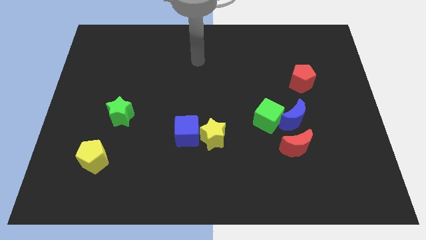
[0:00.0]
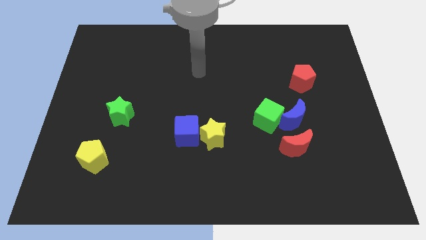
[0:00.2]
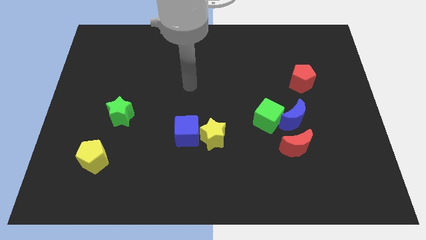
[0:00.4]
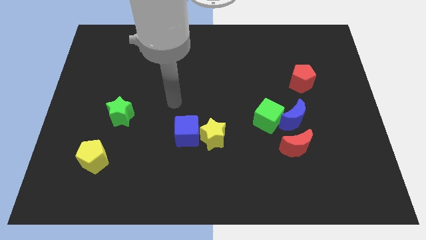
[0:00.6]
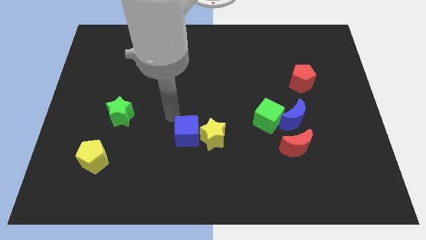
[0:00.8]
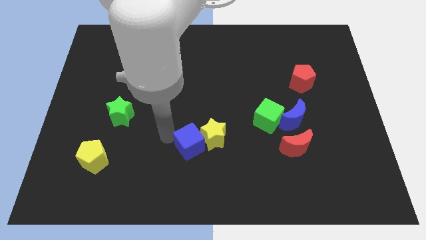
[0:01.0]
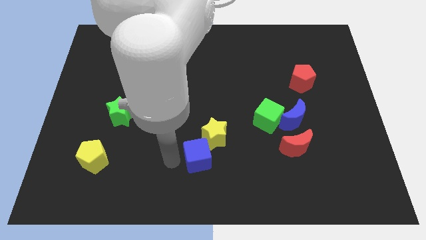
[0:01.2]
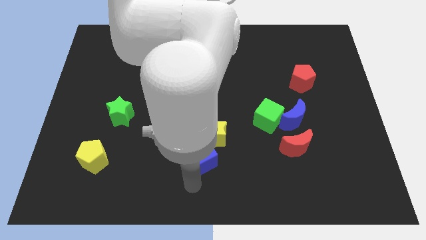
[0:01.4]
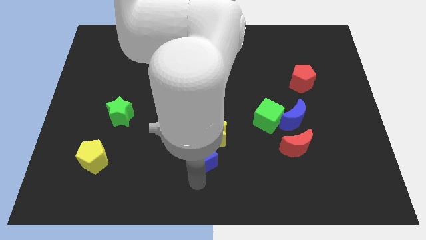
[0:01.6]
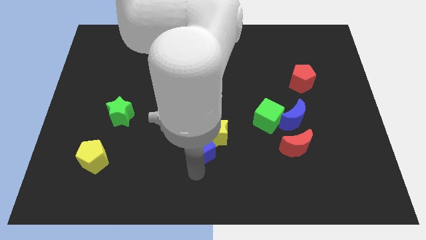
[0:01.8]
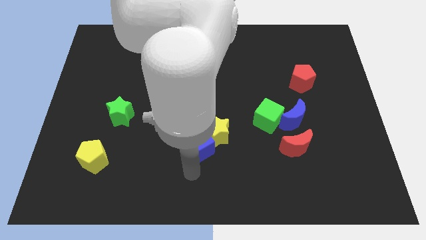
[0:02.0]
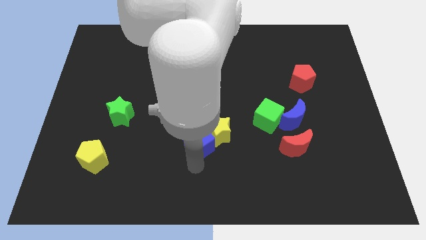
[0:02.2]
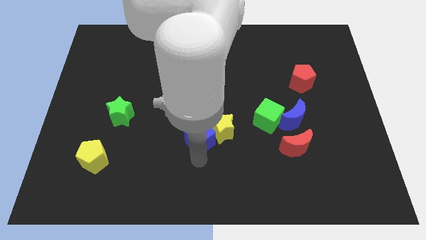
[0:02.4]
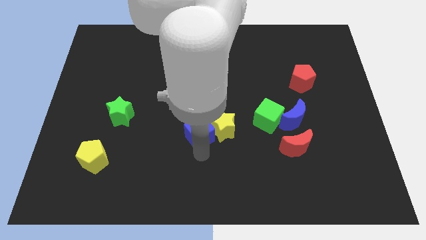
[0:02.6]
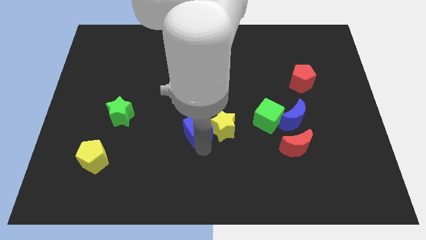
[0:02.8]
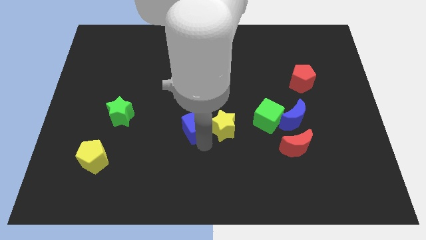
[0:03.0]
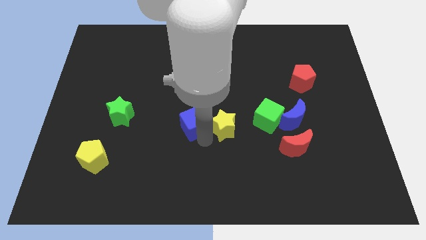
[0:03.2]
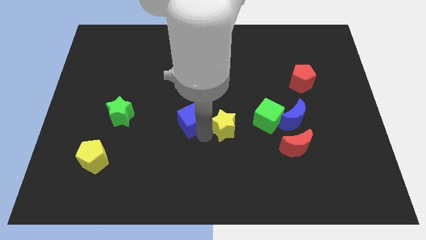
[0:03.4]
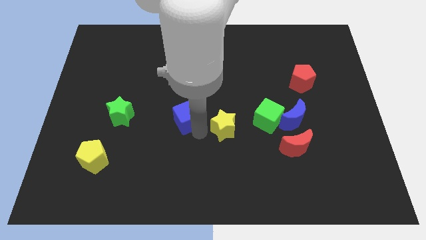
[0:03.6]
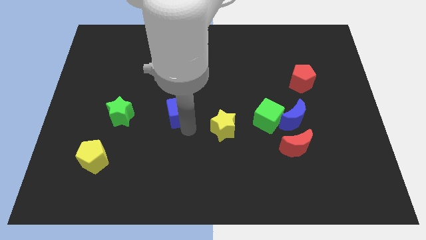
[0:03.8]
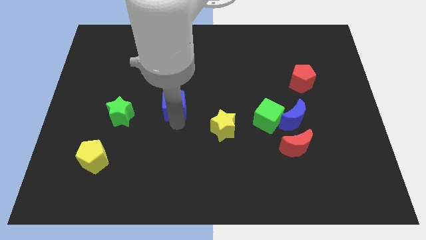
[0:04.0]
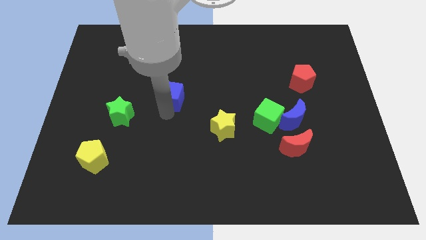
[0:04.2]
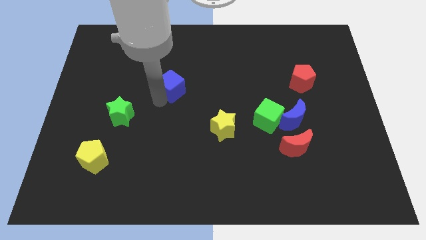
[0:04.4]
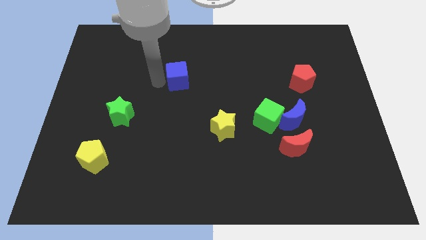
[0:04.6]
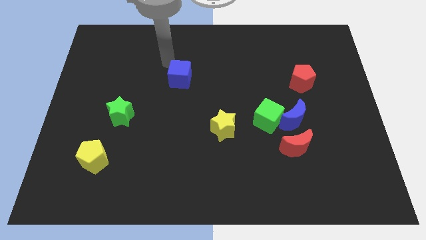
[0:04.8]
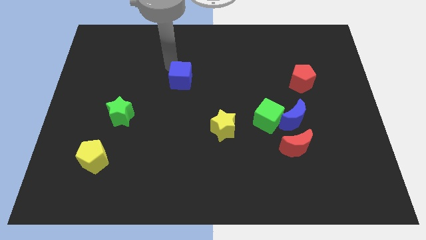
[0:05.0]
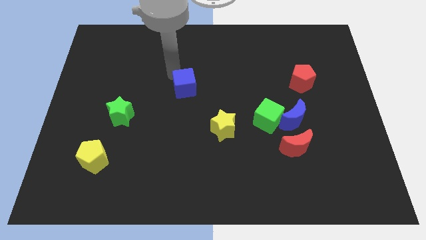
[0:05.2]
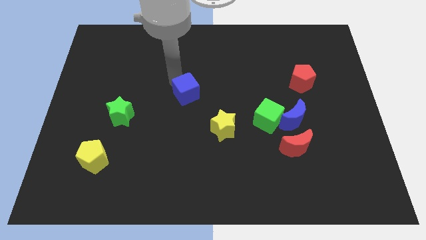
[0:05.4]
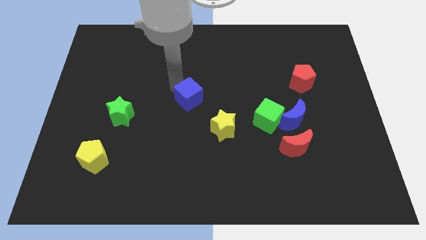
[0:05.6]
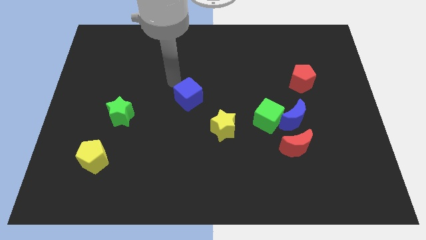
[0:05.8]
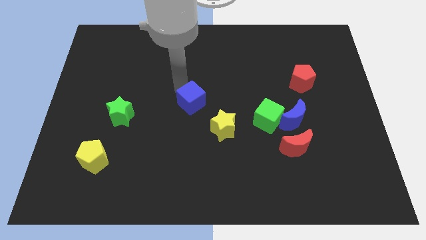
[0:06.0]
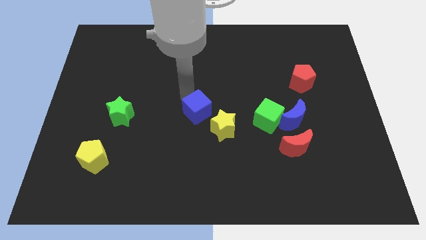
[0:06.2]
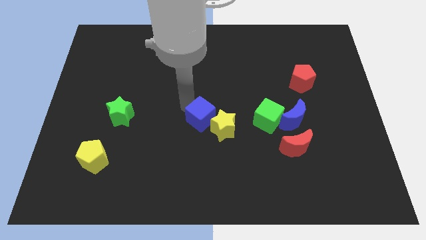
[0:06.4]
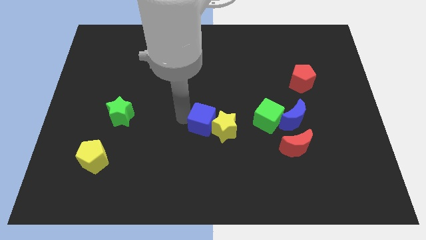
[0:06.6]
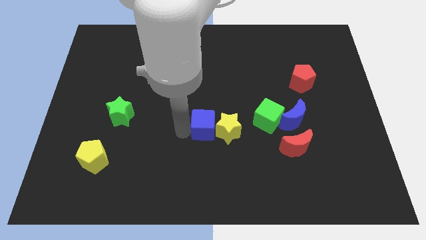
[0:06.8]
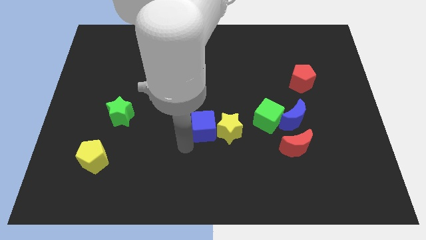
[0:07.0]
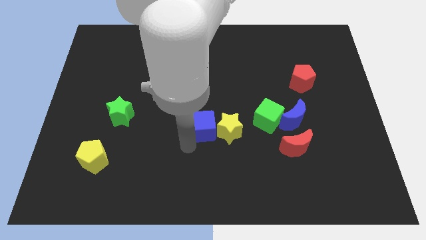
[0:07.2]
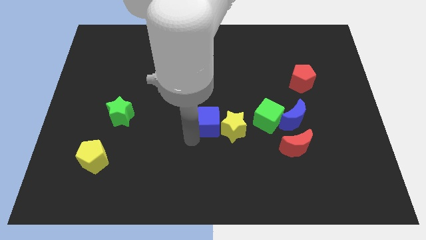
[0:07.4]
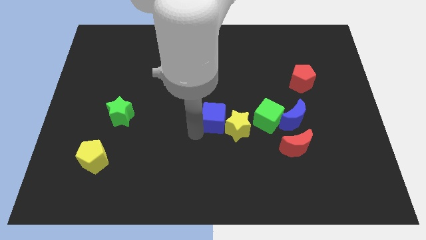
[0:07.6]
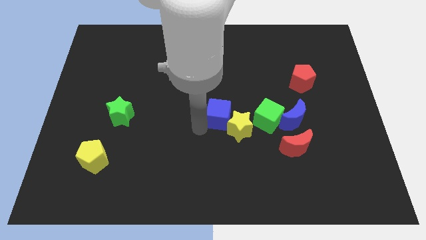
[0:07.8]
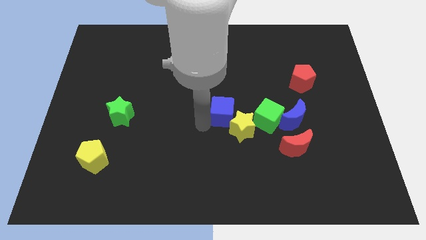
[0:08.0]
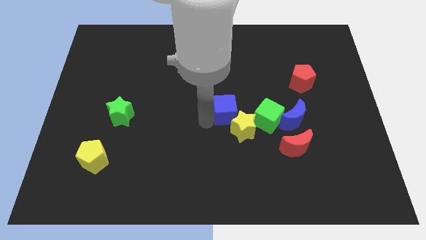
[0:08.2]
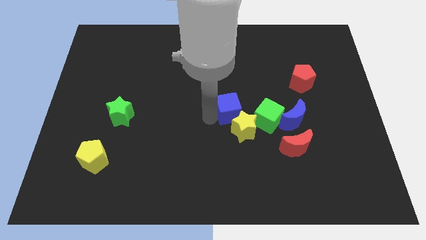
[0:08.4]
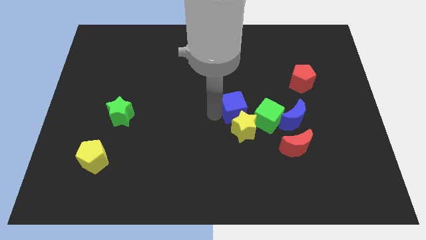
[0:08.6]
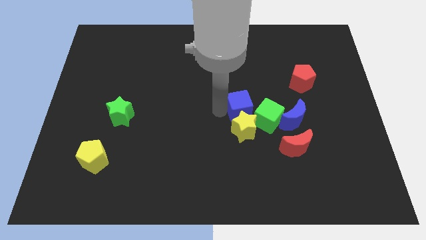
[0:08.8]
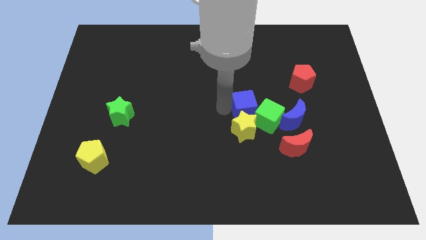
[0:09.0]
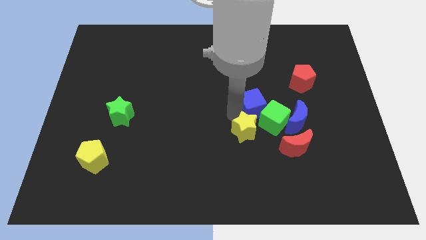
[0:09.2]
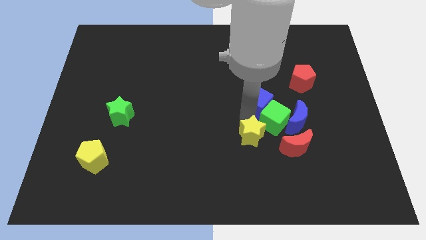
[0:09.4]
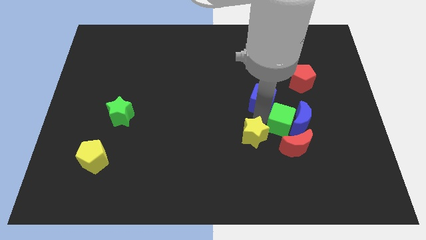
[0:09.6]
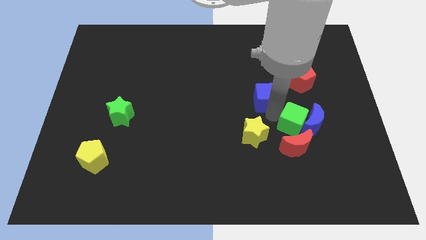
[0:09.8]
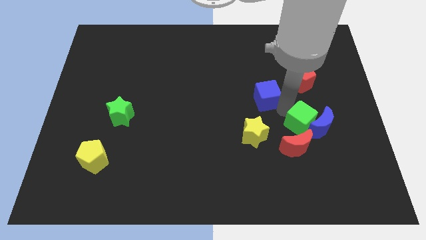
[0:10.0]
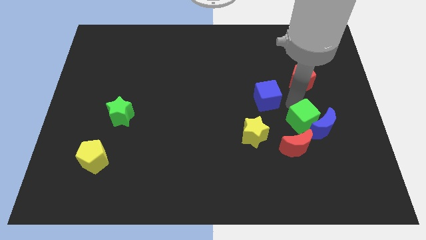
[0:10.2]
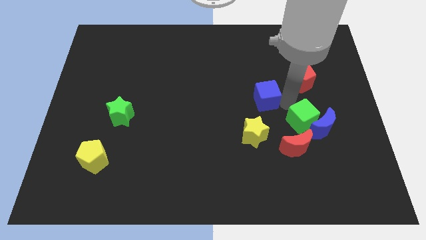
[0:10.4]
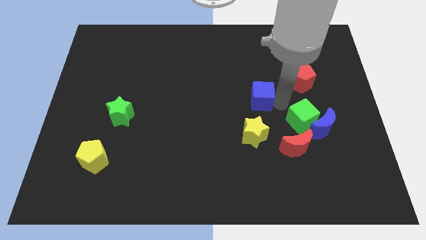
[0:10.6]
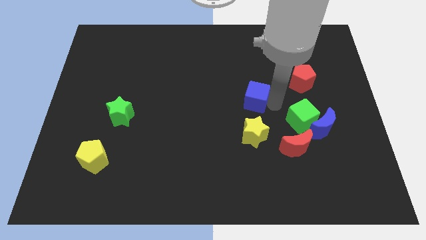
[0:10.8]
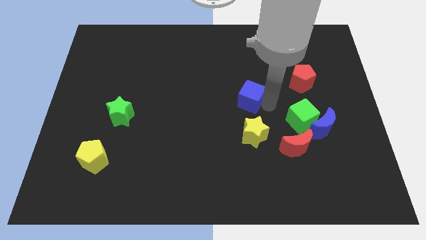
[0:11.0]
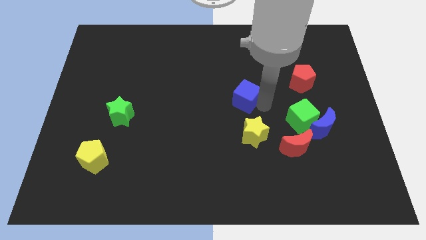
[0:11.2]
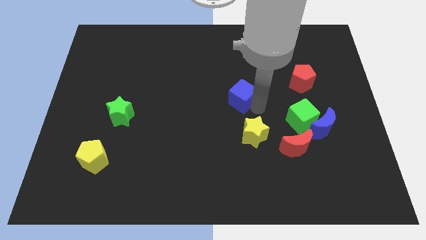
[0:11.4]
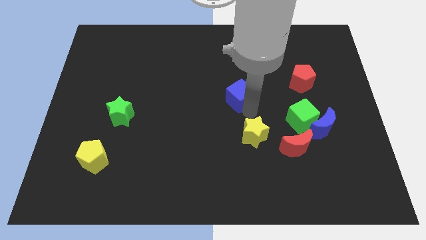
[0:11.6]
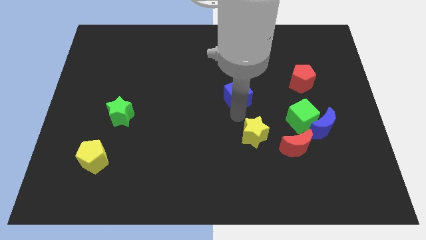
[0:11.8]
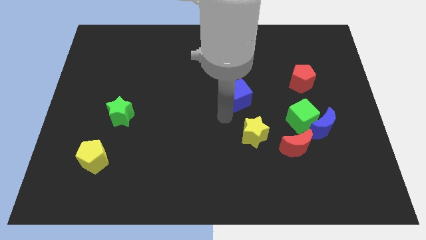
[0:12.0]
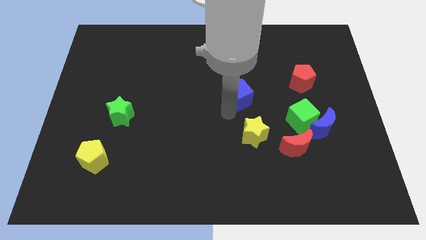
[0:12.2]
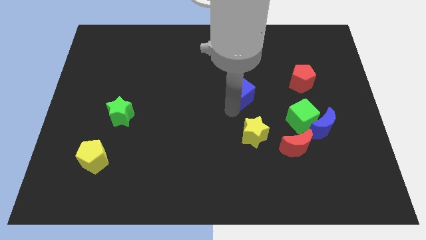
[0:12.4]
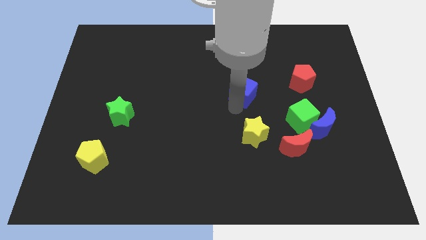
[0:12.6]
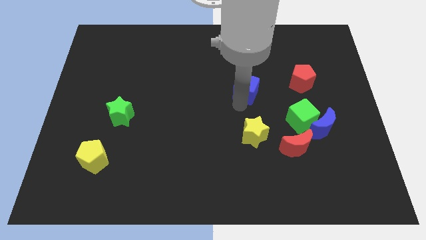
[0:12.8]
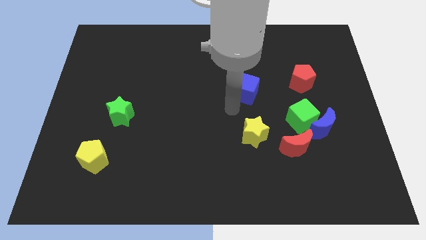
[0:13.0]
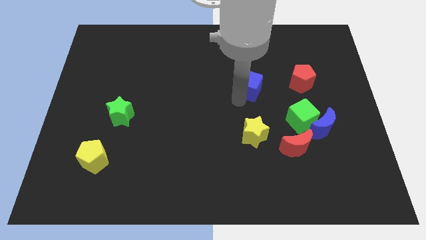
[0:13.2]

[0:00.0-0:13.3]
push the blue cube diagonally upwards and right

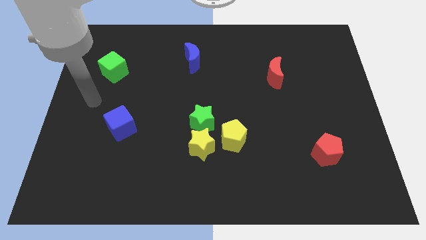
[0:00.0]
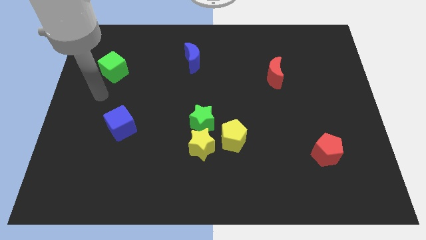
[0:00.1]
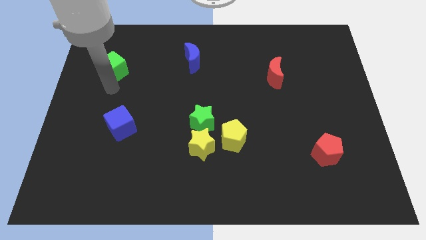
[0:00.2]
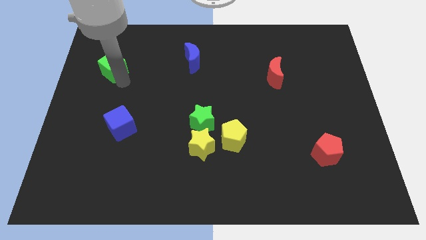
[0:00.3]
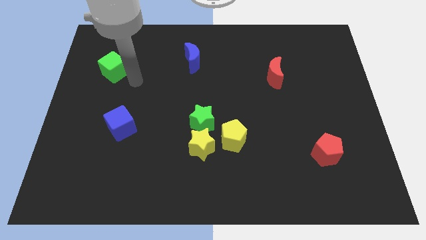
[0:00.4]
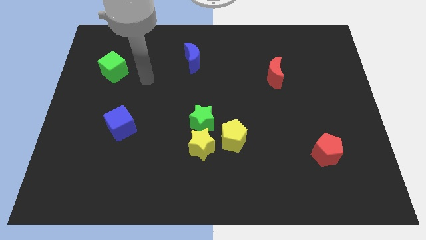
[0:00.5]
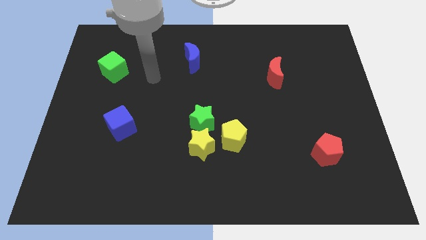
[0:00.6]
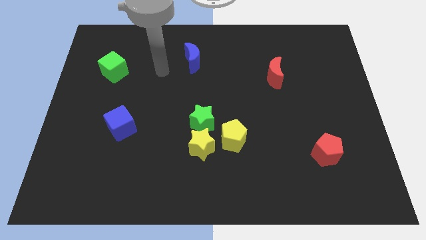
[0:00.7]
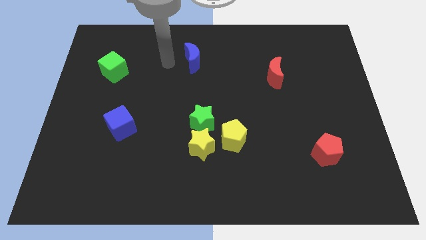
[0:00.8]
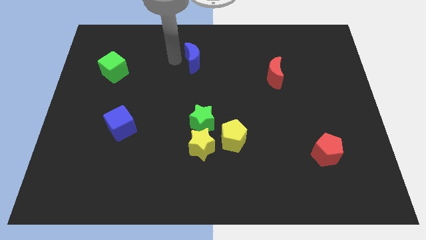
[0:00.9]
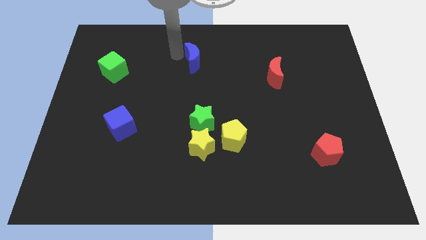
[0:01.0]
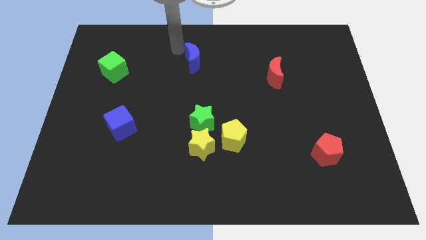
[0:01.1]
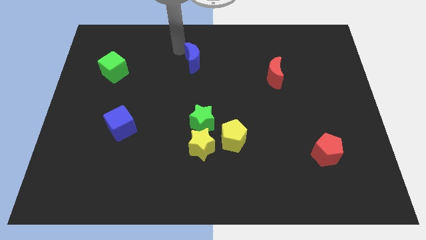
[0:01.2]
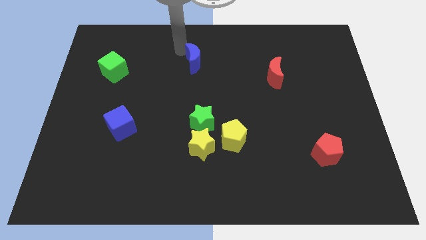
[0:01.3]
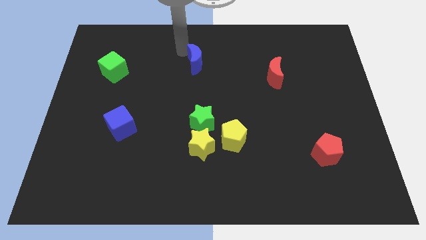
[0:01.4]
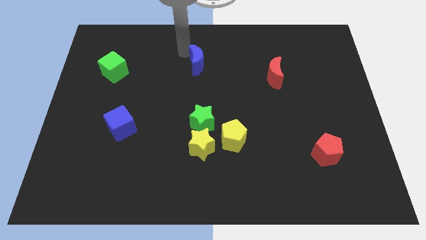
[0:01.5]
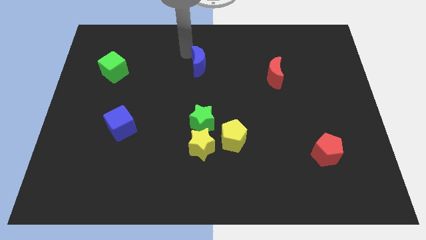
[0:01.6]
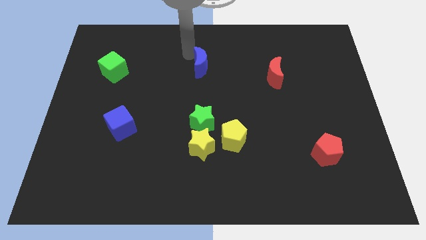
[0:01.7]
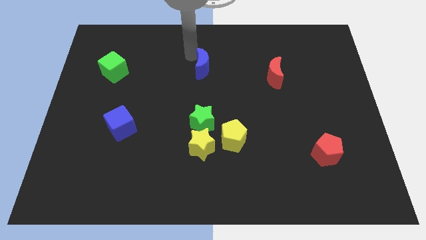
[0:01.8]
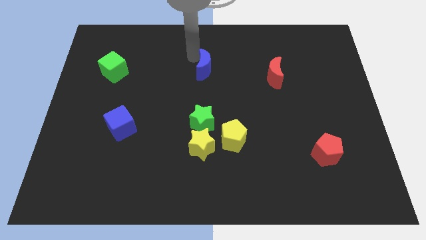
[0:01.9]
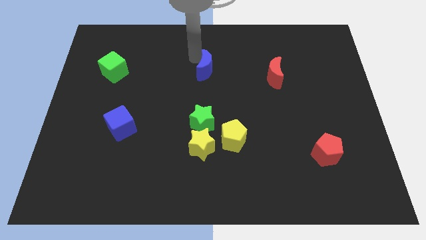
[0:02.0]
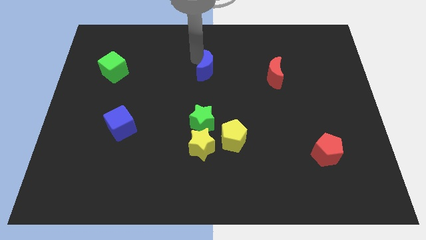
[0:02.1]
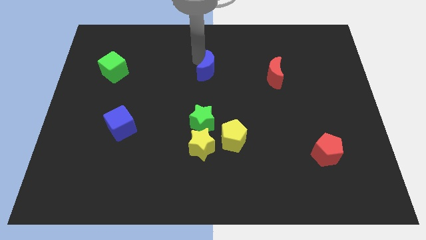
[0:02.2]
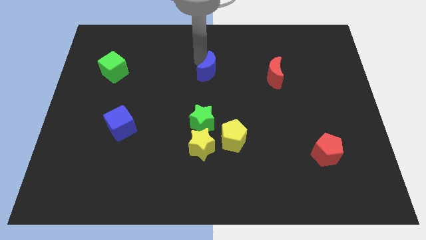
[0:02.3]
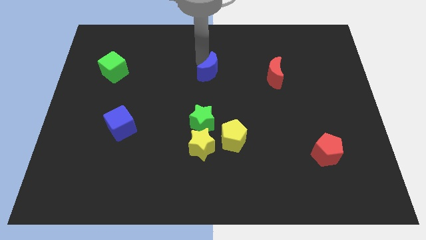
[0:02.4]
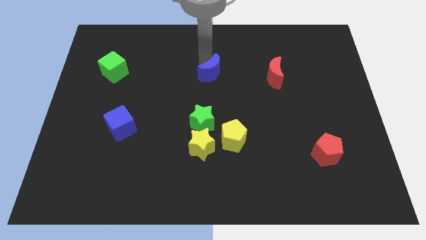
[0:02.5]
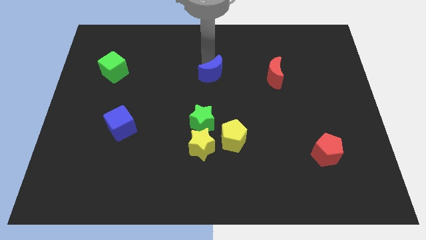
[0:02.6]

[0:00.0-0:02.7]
slightly push the blue moon downwards and then right
